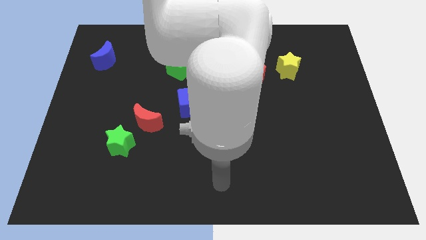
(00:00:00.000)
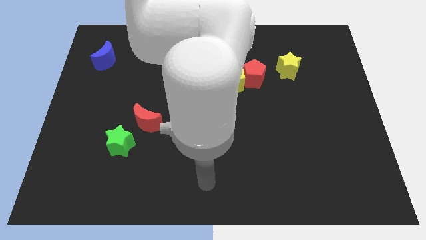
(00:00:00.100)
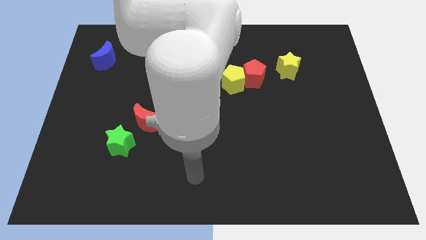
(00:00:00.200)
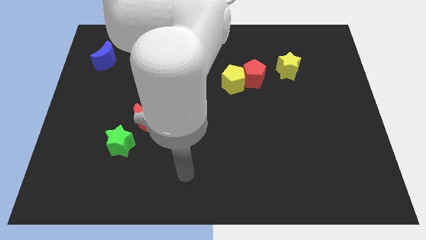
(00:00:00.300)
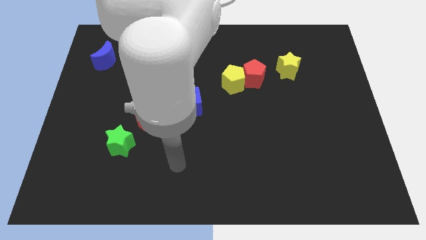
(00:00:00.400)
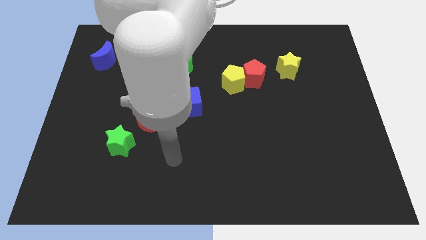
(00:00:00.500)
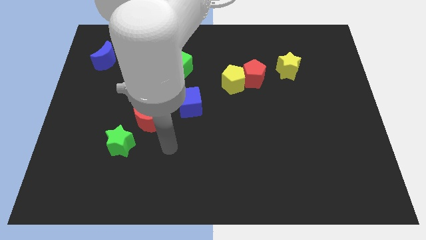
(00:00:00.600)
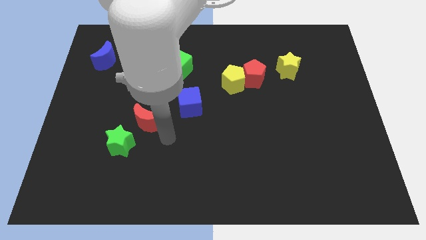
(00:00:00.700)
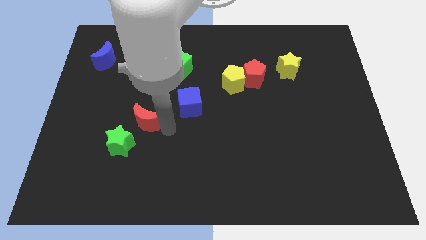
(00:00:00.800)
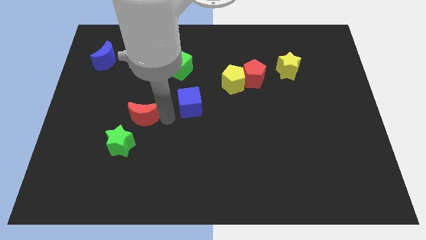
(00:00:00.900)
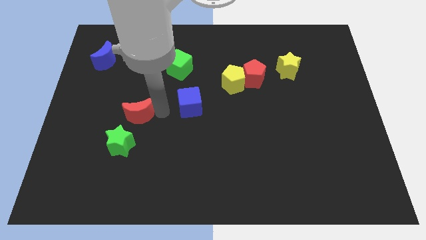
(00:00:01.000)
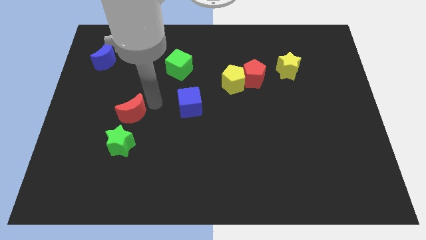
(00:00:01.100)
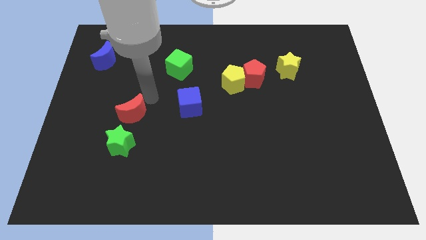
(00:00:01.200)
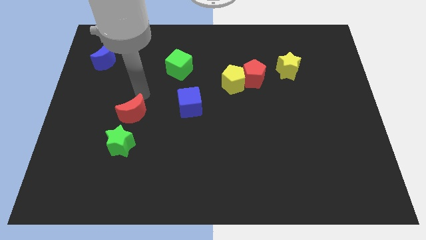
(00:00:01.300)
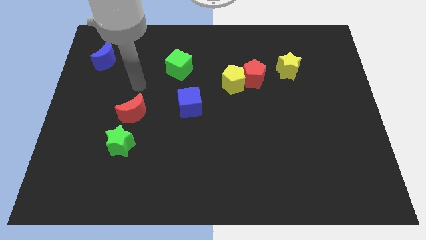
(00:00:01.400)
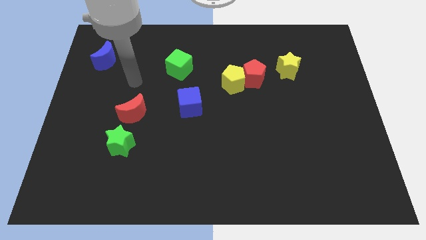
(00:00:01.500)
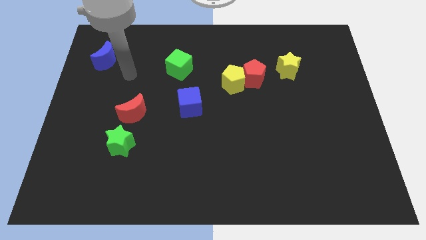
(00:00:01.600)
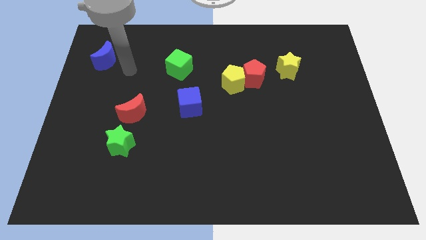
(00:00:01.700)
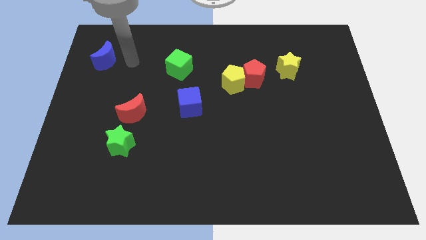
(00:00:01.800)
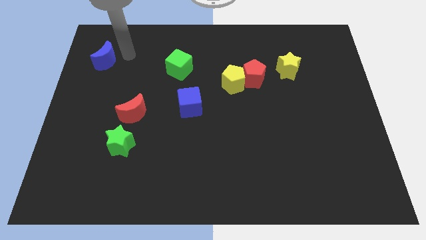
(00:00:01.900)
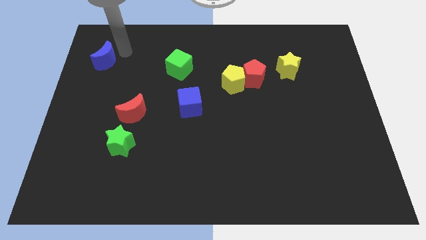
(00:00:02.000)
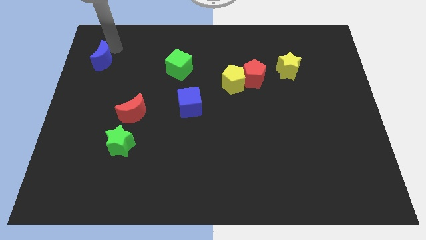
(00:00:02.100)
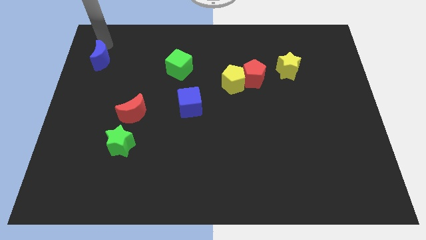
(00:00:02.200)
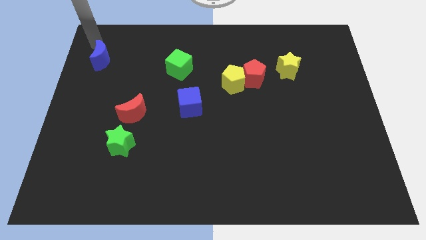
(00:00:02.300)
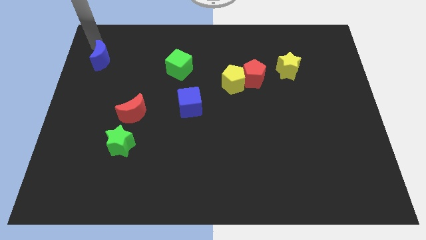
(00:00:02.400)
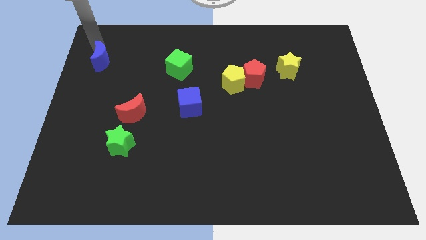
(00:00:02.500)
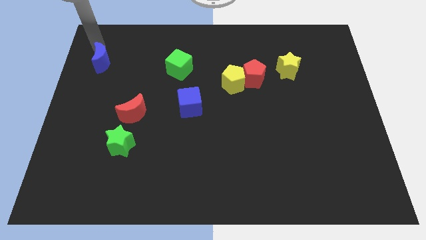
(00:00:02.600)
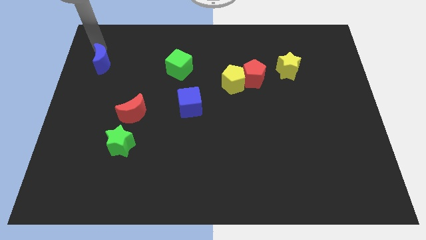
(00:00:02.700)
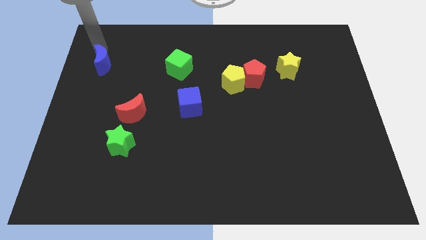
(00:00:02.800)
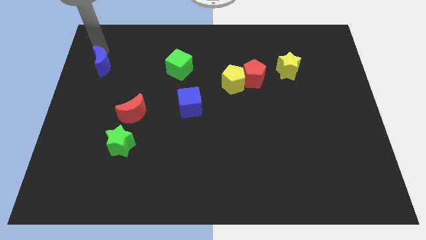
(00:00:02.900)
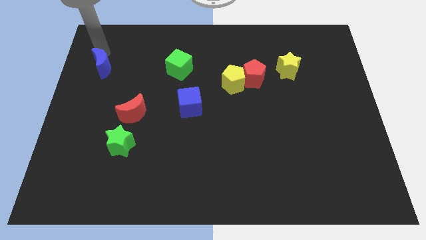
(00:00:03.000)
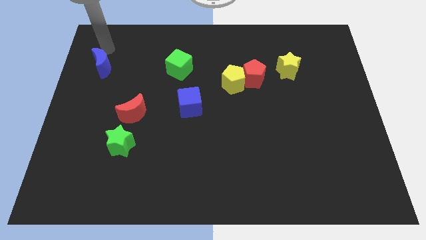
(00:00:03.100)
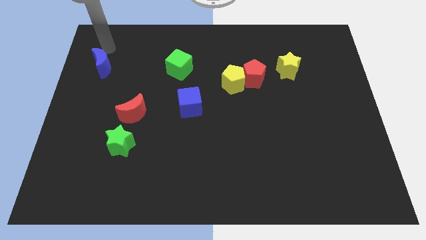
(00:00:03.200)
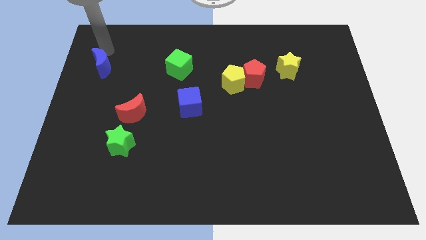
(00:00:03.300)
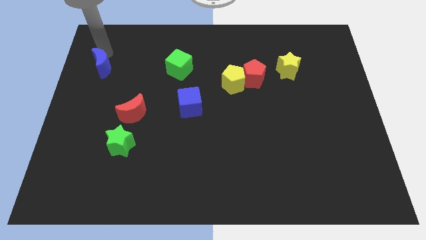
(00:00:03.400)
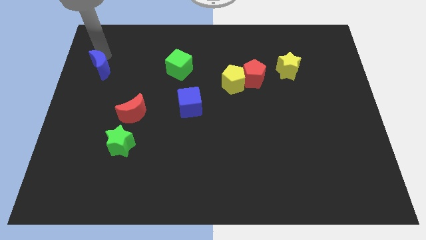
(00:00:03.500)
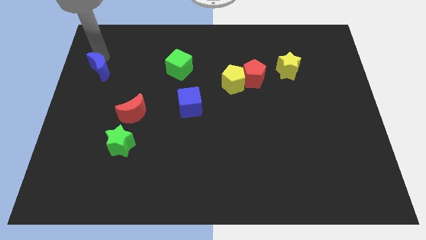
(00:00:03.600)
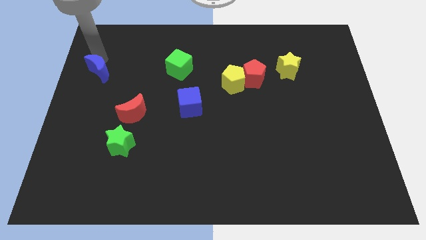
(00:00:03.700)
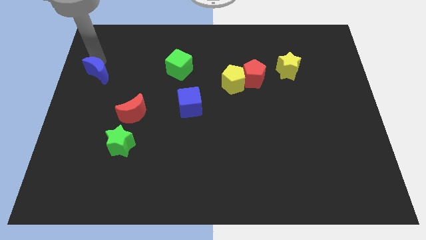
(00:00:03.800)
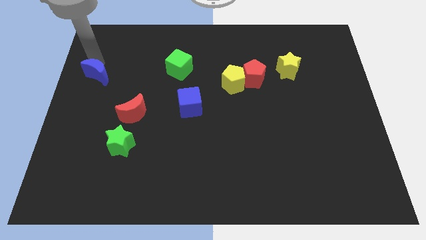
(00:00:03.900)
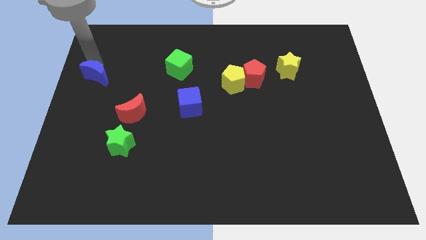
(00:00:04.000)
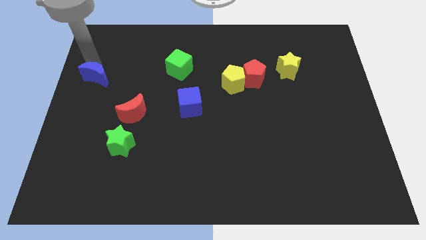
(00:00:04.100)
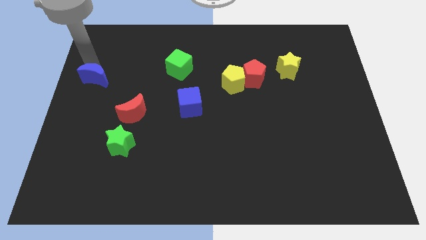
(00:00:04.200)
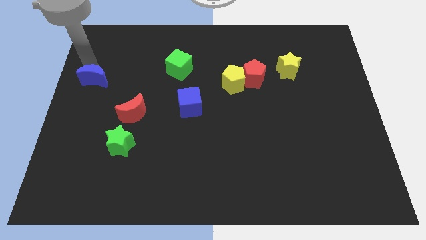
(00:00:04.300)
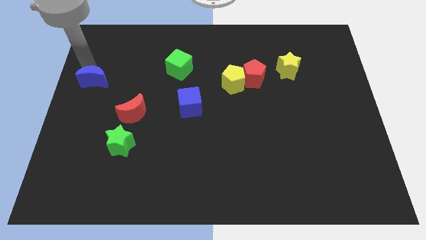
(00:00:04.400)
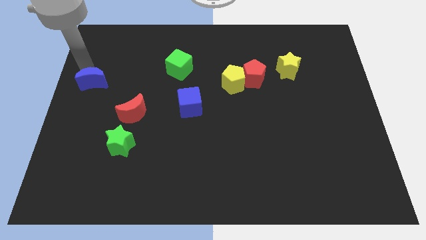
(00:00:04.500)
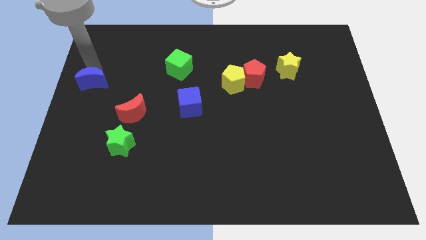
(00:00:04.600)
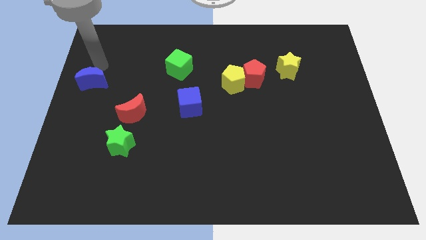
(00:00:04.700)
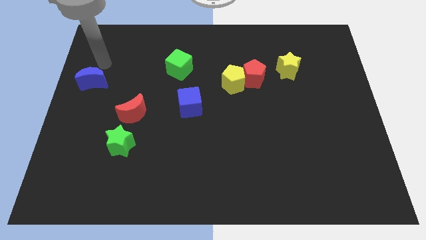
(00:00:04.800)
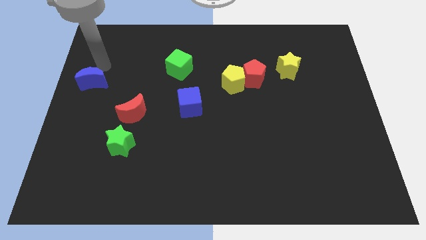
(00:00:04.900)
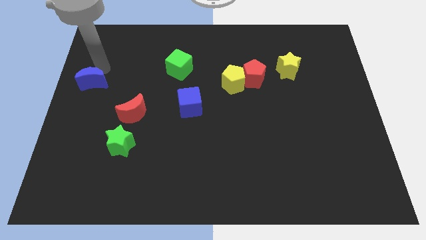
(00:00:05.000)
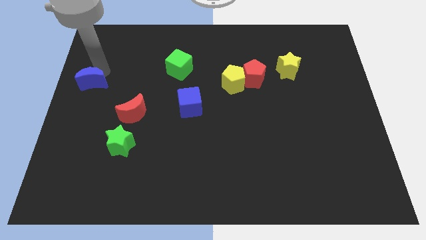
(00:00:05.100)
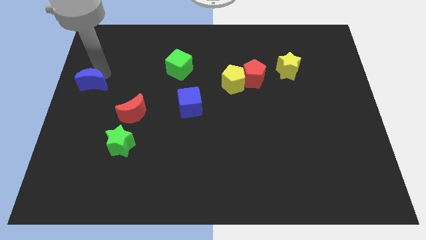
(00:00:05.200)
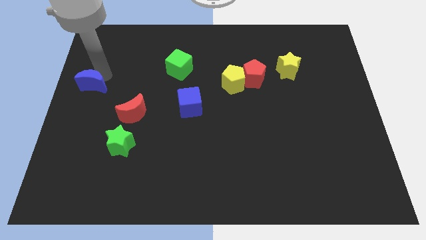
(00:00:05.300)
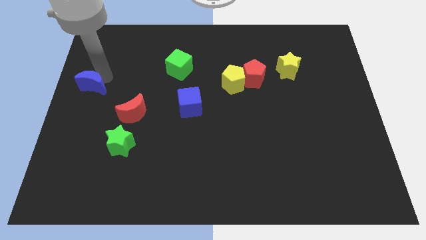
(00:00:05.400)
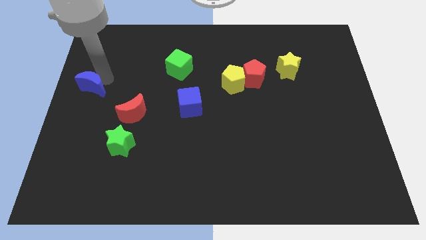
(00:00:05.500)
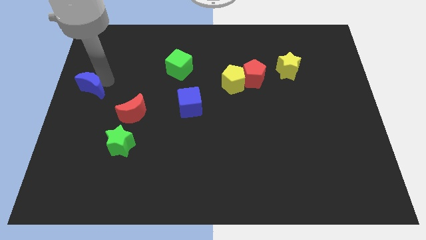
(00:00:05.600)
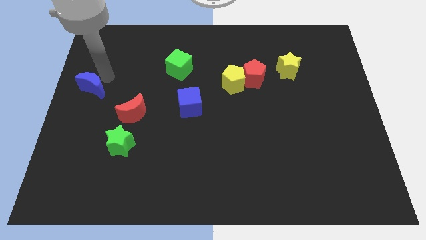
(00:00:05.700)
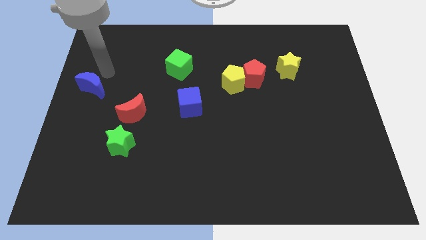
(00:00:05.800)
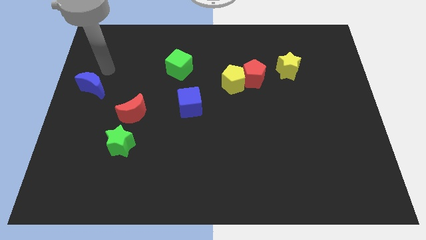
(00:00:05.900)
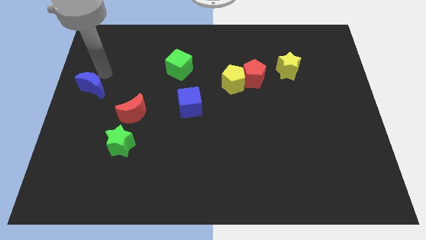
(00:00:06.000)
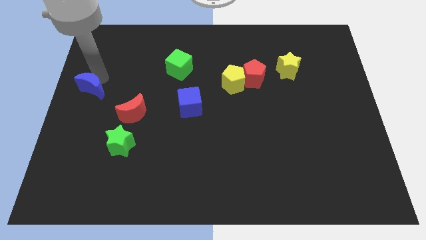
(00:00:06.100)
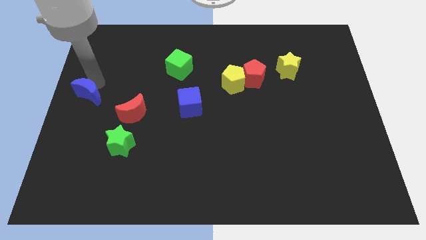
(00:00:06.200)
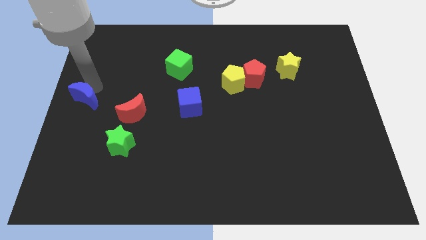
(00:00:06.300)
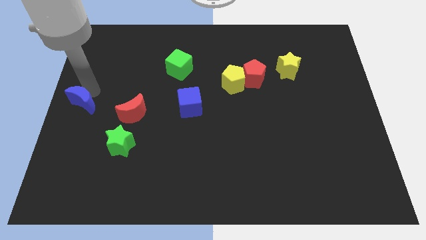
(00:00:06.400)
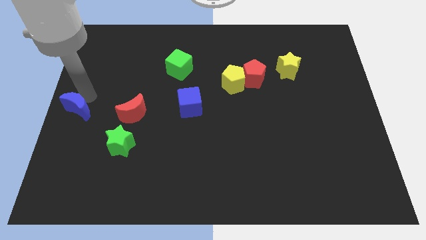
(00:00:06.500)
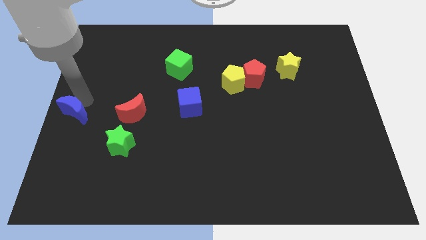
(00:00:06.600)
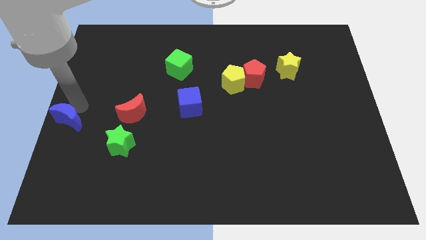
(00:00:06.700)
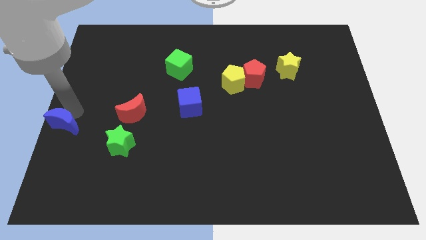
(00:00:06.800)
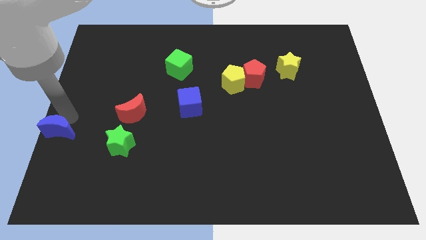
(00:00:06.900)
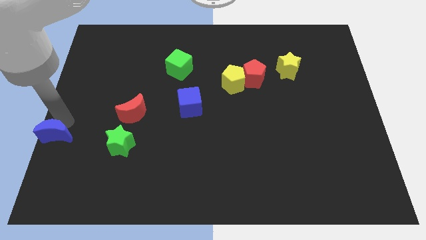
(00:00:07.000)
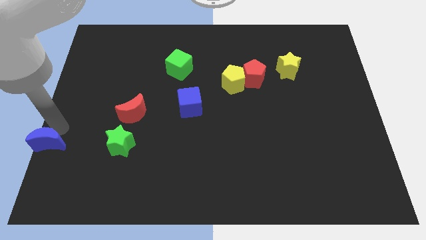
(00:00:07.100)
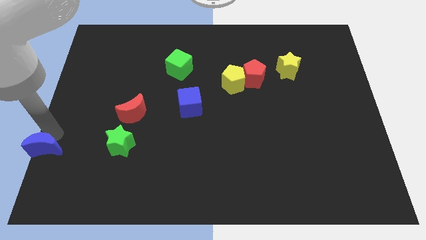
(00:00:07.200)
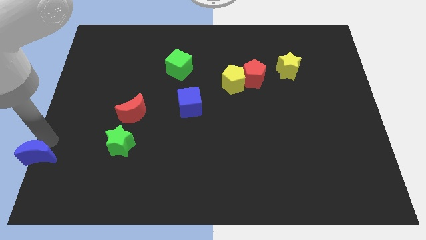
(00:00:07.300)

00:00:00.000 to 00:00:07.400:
move the blue moon to the bottom left of the board
